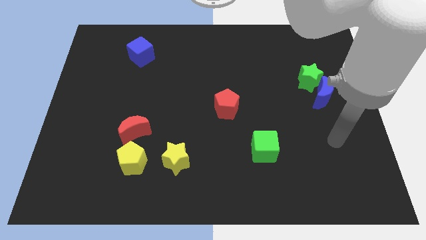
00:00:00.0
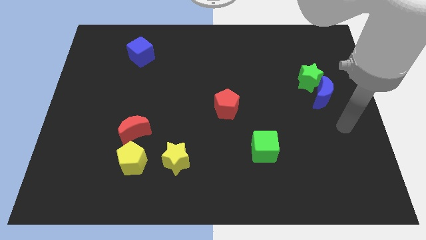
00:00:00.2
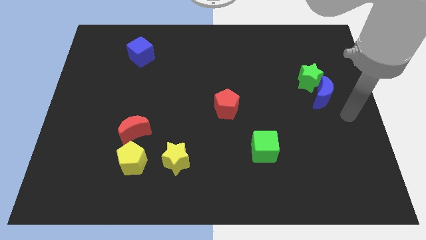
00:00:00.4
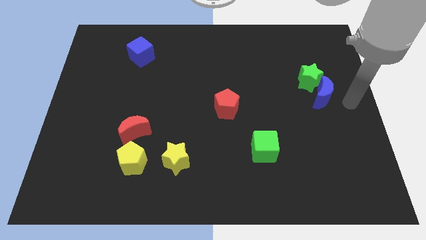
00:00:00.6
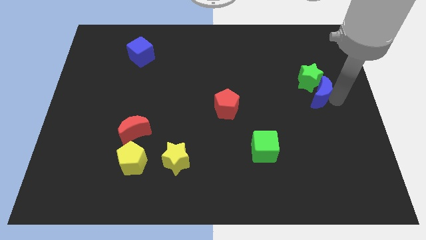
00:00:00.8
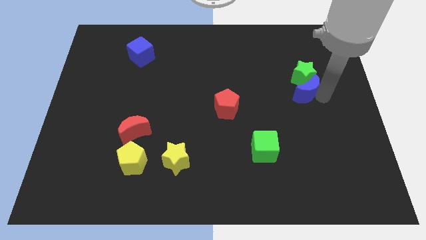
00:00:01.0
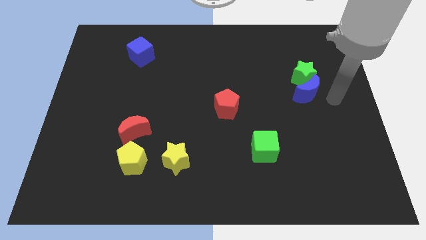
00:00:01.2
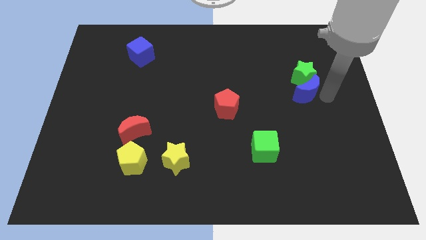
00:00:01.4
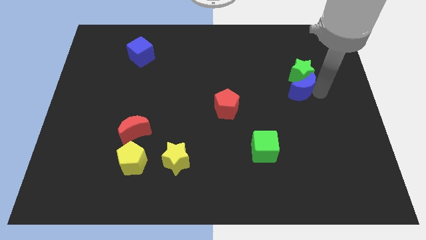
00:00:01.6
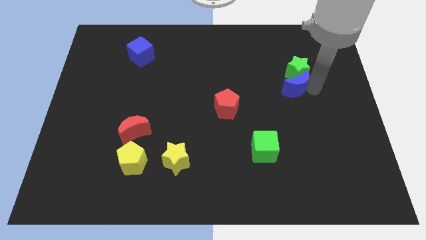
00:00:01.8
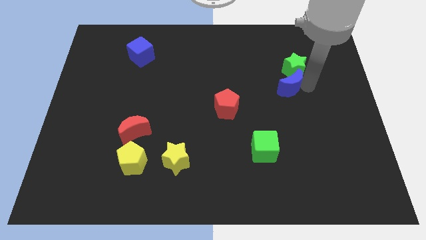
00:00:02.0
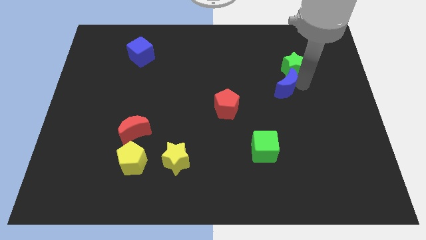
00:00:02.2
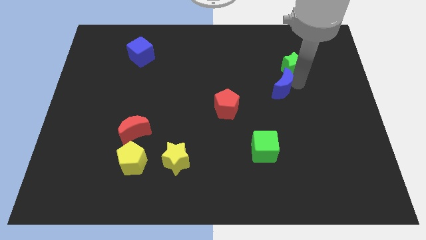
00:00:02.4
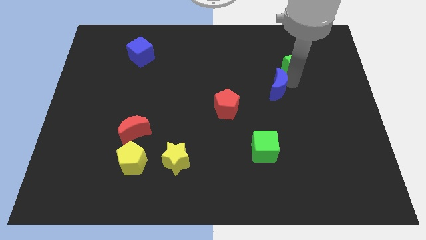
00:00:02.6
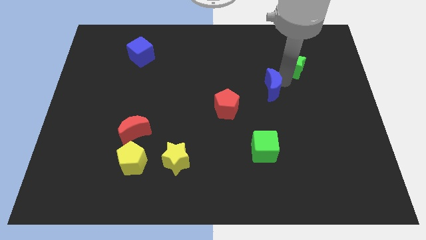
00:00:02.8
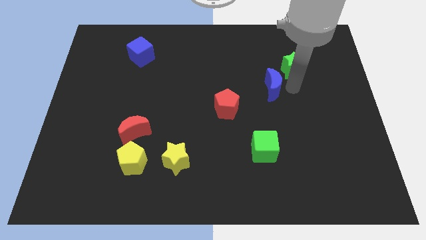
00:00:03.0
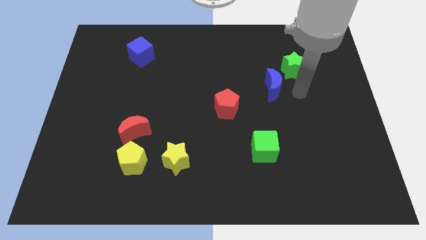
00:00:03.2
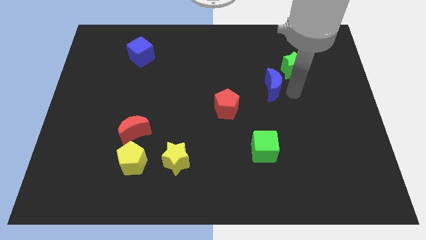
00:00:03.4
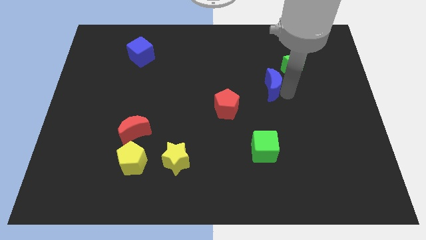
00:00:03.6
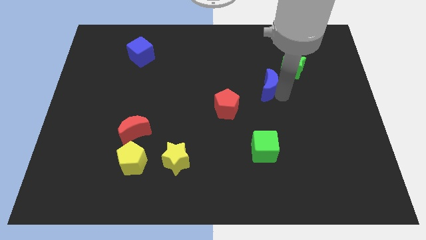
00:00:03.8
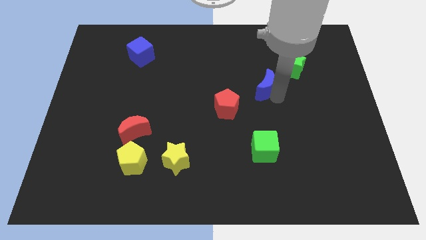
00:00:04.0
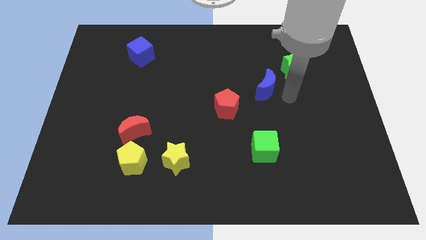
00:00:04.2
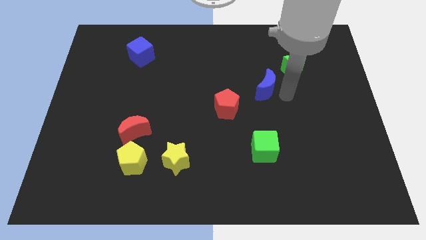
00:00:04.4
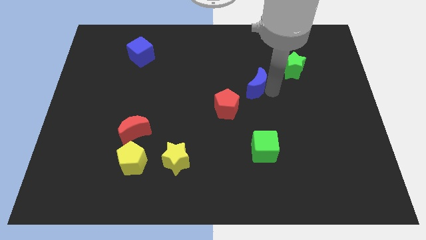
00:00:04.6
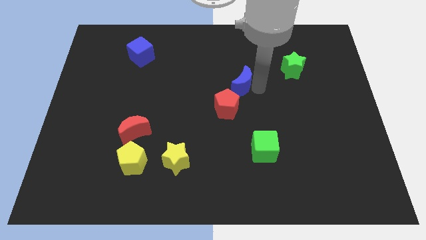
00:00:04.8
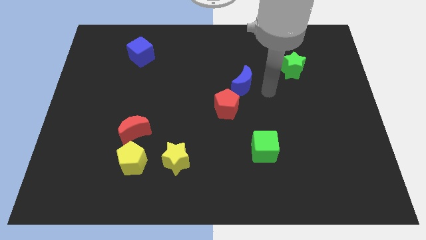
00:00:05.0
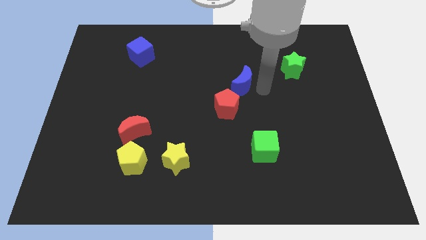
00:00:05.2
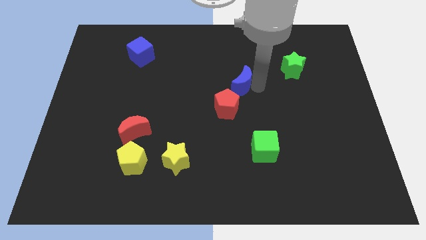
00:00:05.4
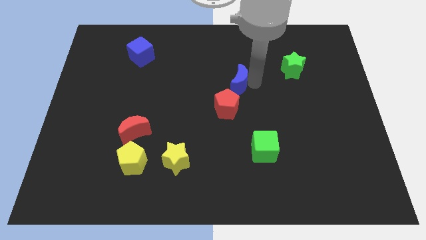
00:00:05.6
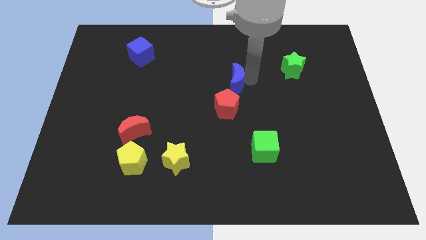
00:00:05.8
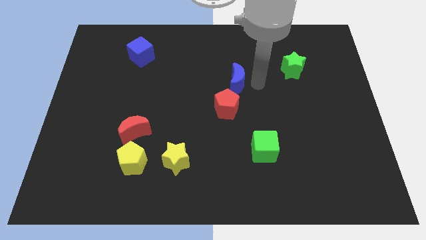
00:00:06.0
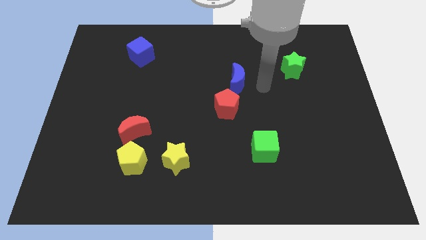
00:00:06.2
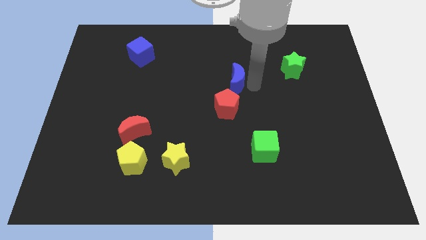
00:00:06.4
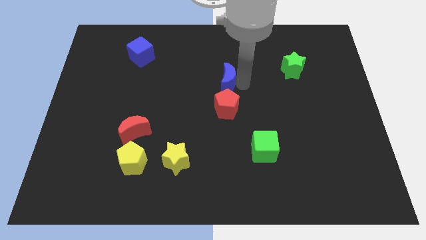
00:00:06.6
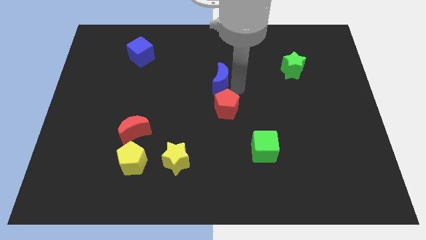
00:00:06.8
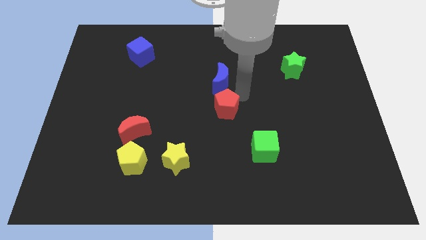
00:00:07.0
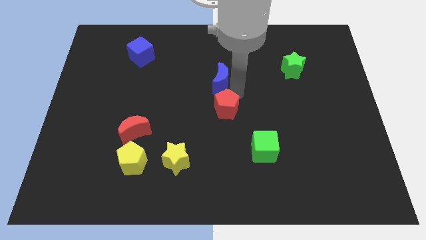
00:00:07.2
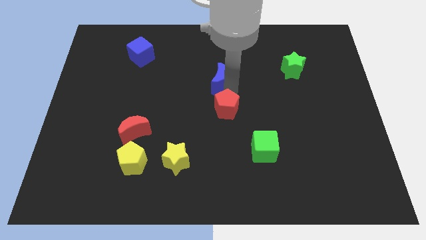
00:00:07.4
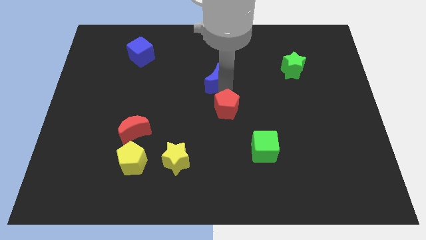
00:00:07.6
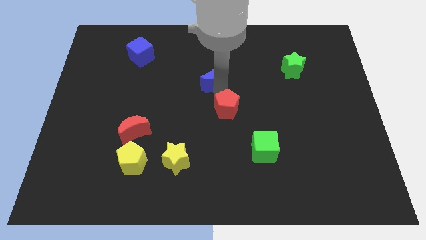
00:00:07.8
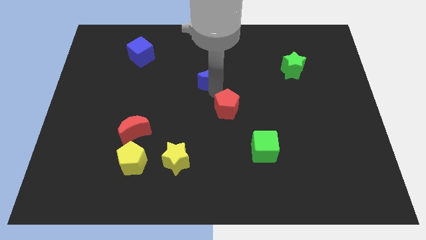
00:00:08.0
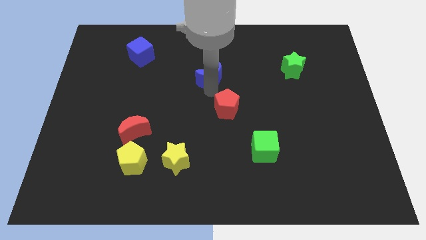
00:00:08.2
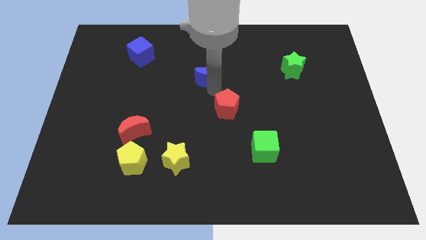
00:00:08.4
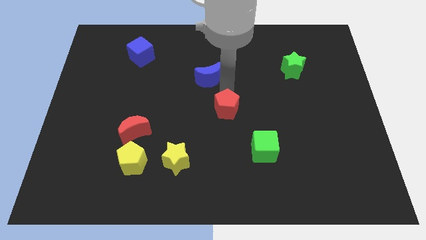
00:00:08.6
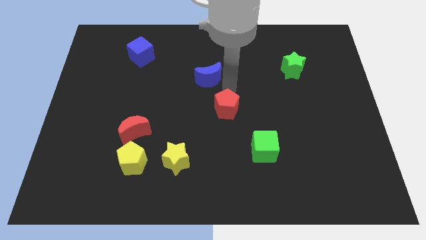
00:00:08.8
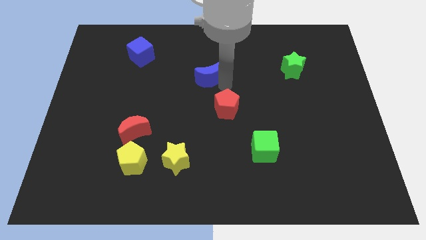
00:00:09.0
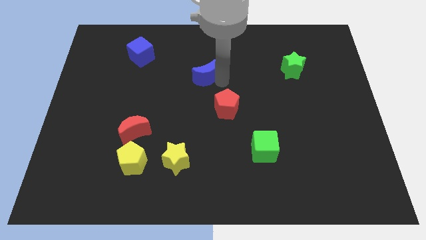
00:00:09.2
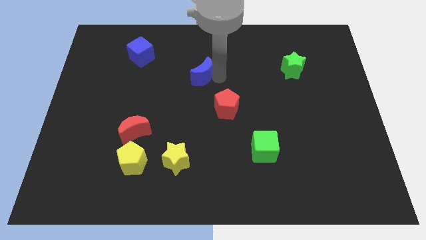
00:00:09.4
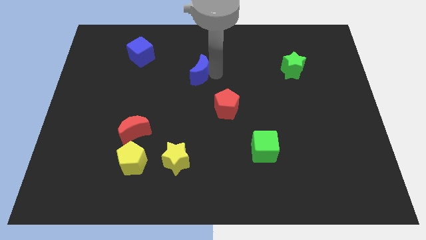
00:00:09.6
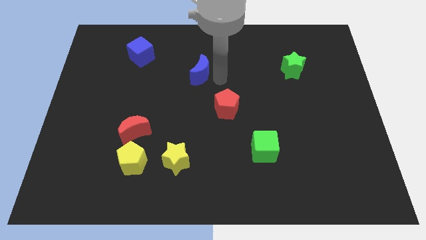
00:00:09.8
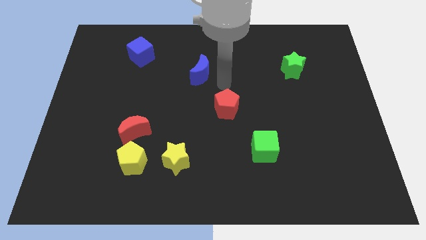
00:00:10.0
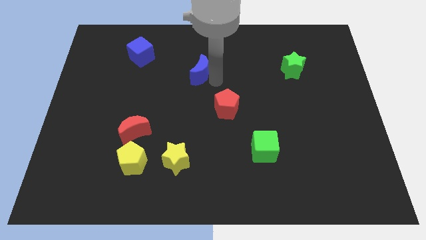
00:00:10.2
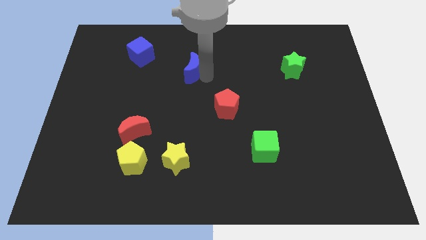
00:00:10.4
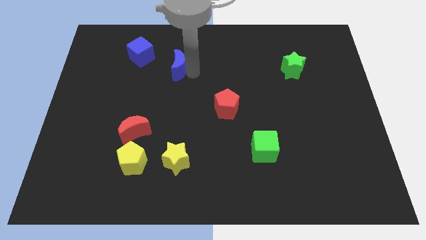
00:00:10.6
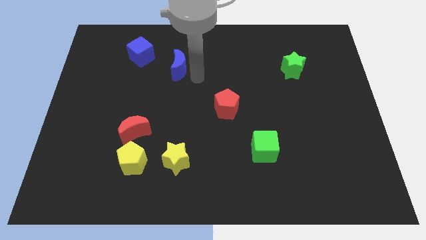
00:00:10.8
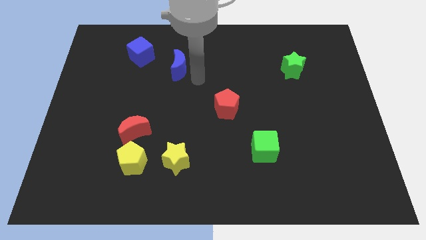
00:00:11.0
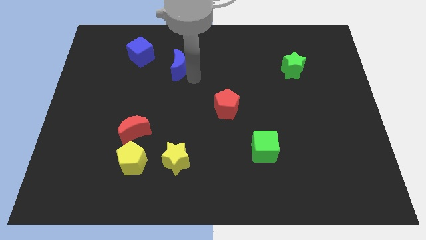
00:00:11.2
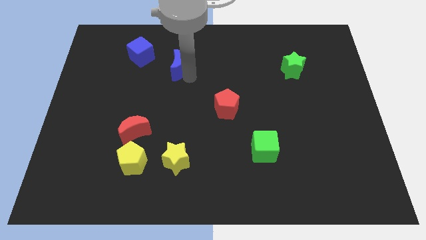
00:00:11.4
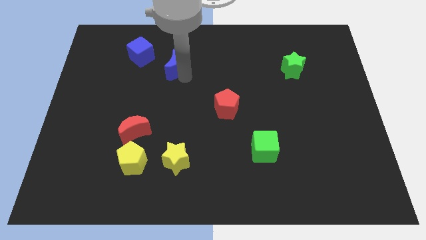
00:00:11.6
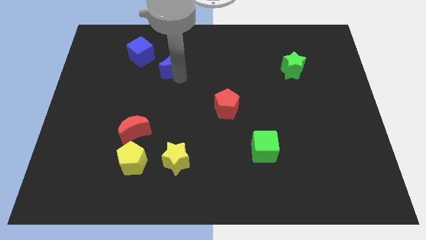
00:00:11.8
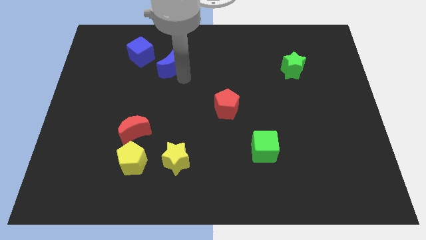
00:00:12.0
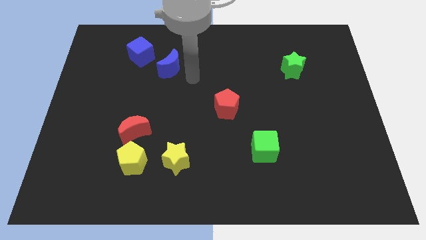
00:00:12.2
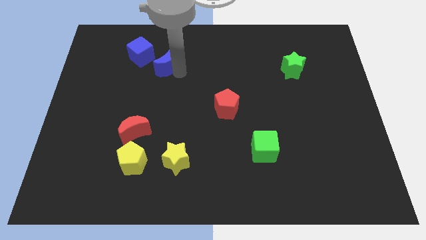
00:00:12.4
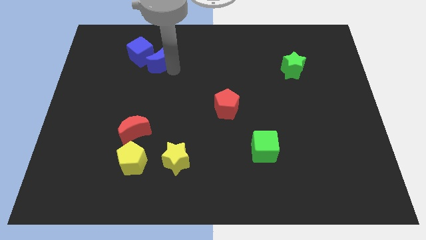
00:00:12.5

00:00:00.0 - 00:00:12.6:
push the blue moon towards the blue cube

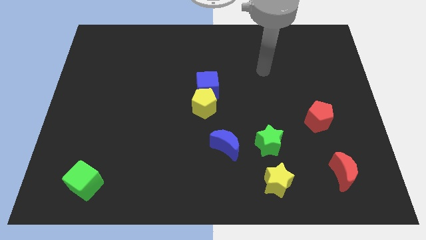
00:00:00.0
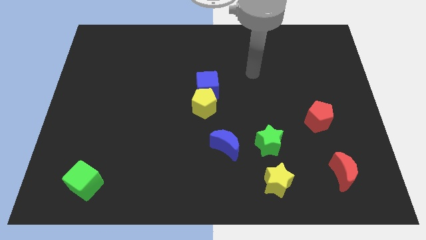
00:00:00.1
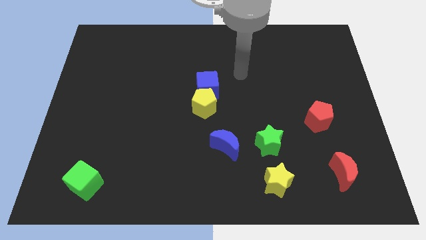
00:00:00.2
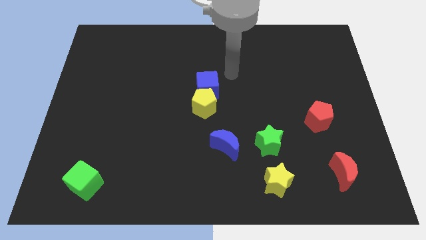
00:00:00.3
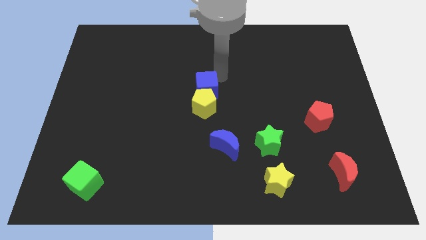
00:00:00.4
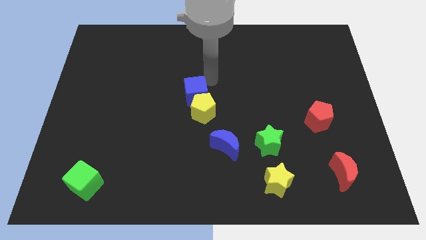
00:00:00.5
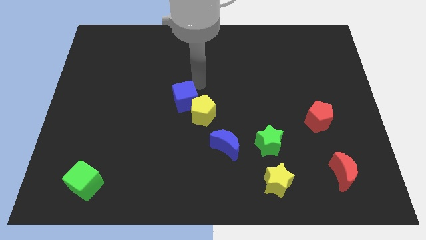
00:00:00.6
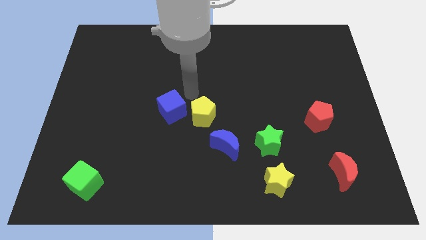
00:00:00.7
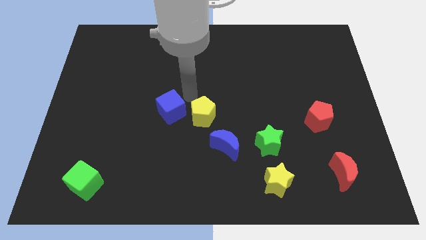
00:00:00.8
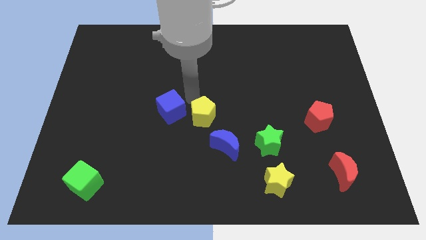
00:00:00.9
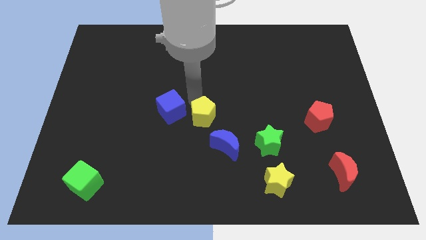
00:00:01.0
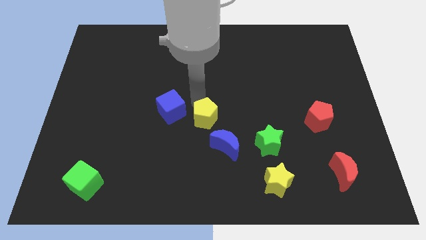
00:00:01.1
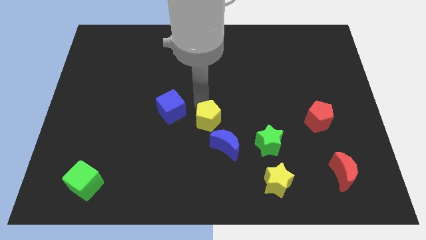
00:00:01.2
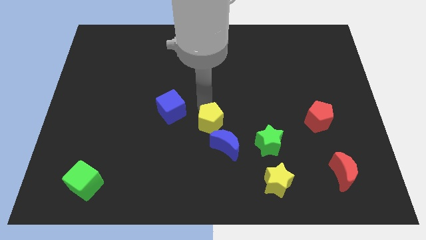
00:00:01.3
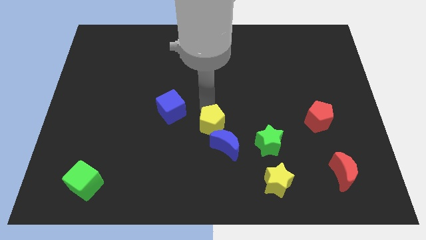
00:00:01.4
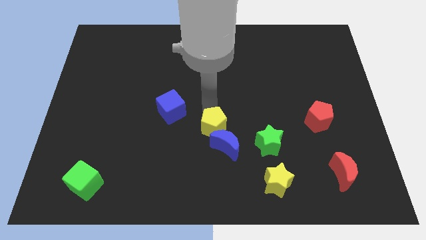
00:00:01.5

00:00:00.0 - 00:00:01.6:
slide the yellow pentagon to the blue moon

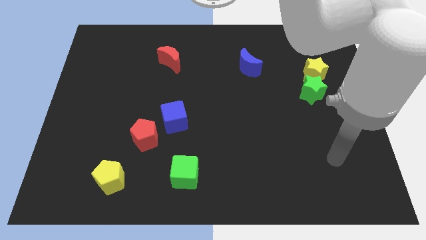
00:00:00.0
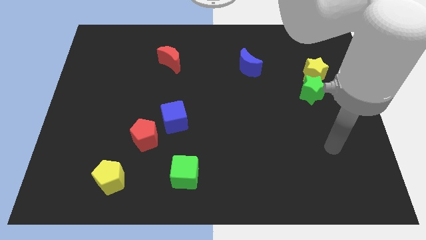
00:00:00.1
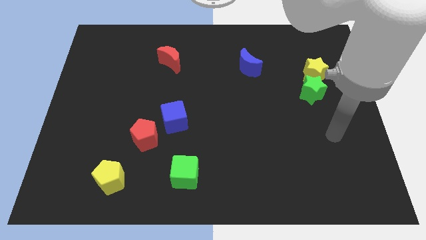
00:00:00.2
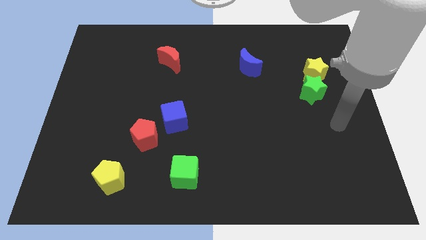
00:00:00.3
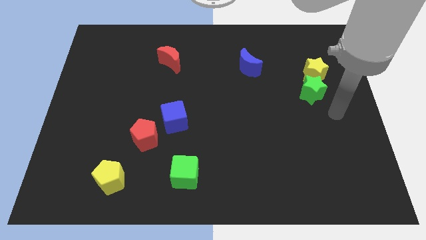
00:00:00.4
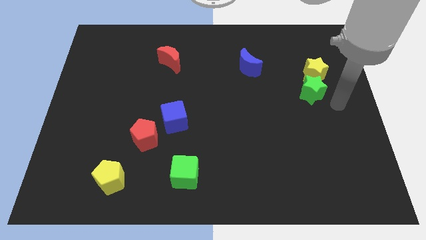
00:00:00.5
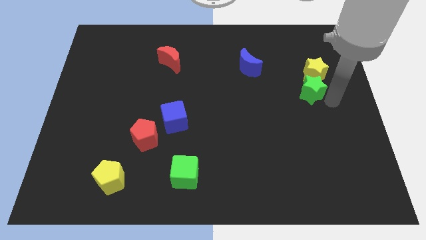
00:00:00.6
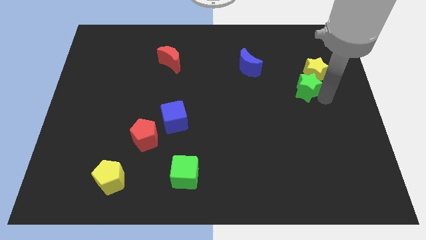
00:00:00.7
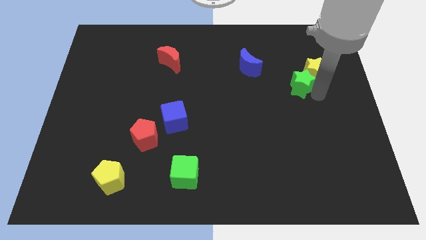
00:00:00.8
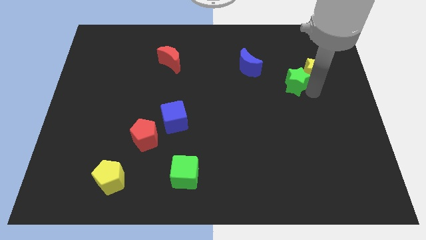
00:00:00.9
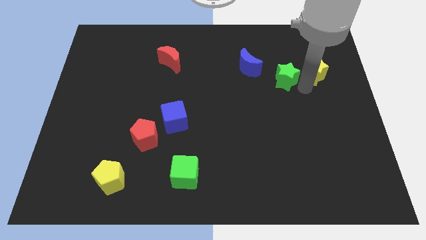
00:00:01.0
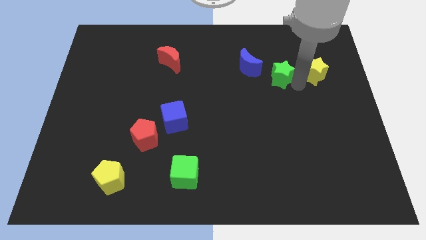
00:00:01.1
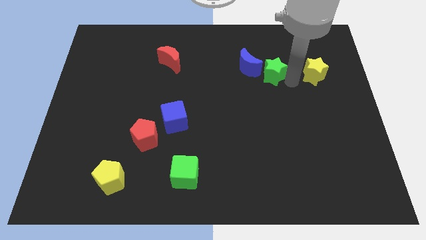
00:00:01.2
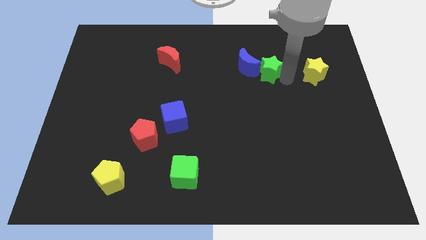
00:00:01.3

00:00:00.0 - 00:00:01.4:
put the green star towards the blue moon
